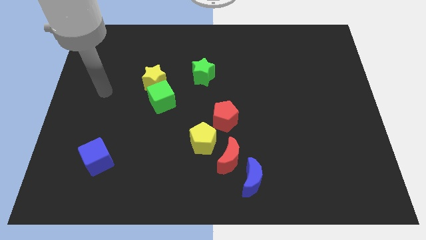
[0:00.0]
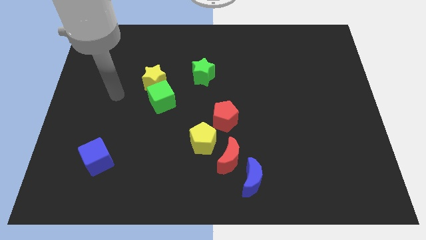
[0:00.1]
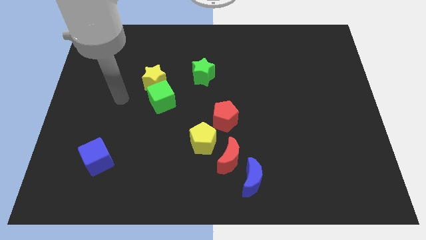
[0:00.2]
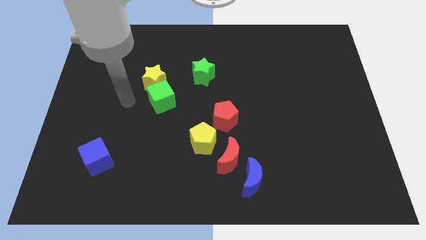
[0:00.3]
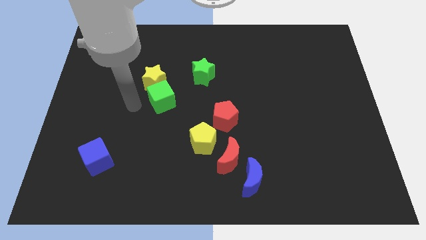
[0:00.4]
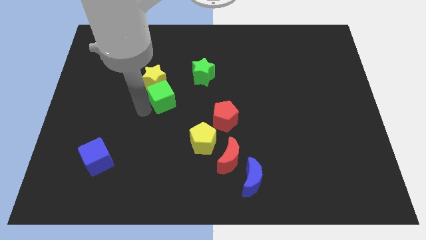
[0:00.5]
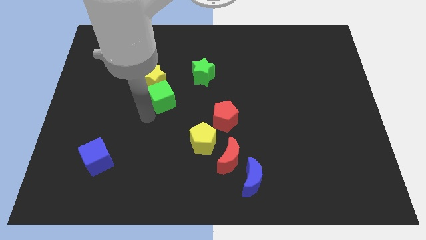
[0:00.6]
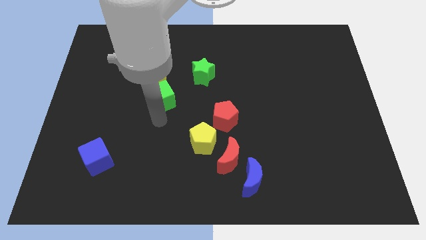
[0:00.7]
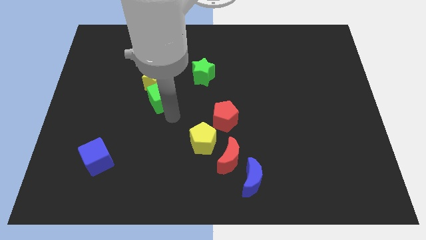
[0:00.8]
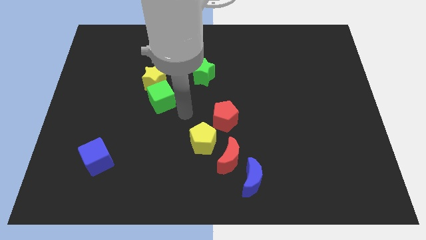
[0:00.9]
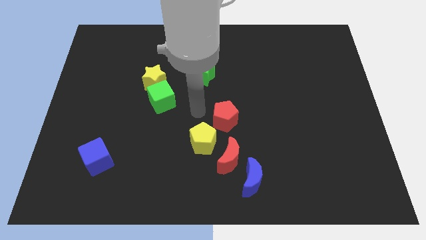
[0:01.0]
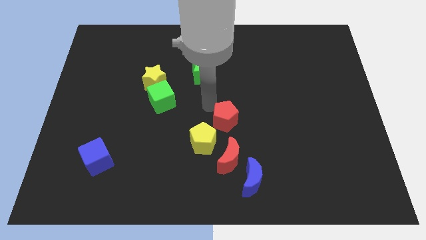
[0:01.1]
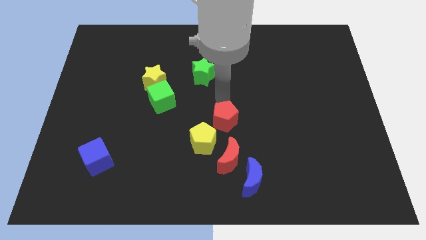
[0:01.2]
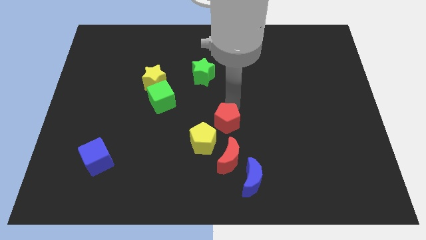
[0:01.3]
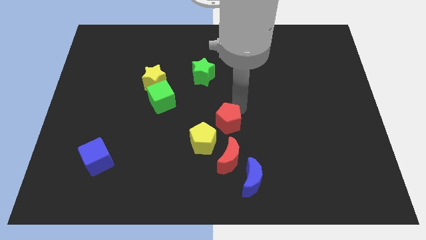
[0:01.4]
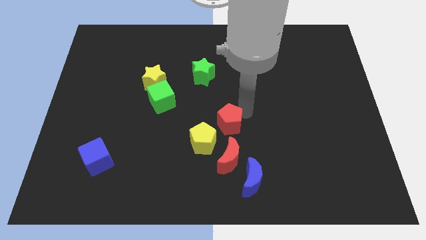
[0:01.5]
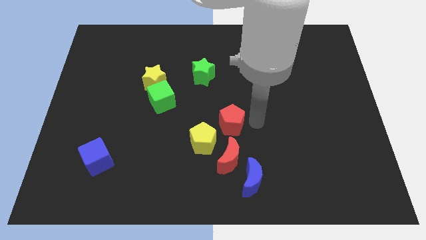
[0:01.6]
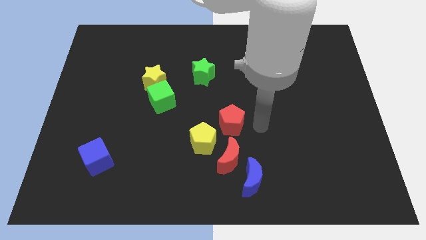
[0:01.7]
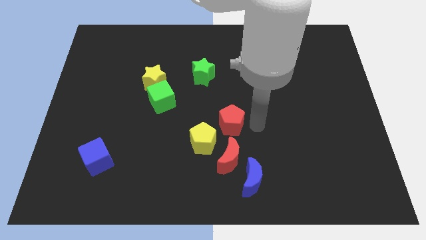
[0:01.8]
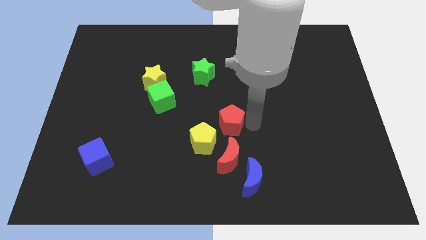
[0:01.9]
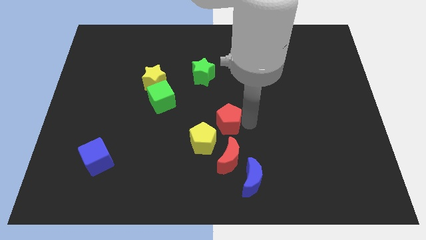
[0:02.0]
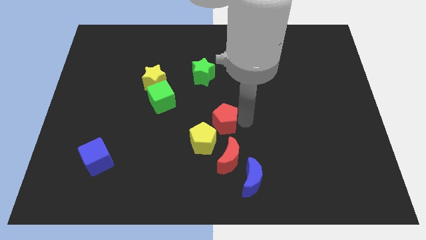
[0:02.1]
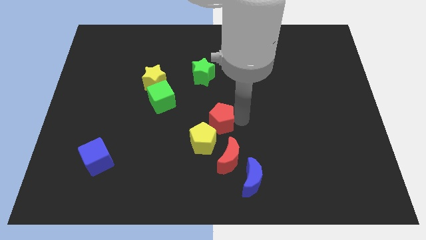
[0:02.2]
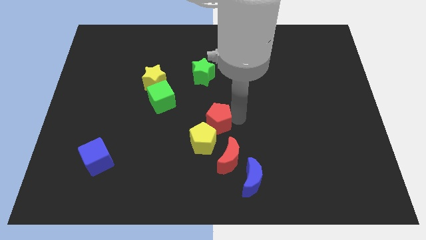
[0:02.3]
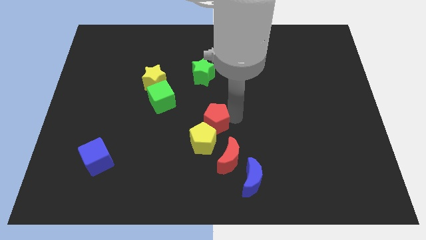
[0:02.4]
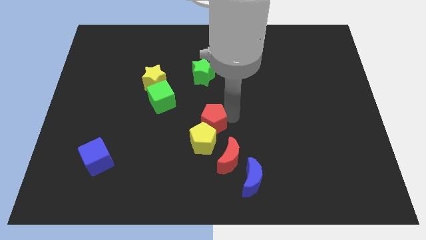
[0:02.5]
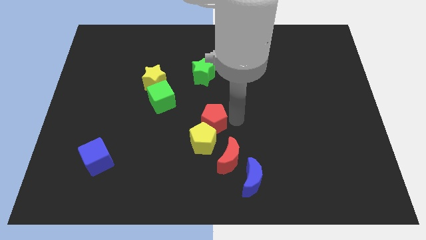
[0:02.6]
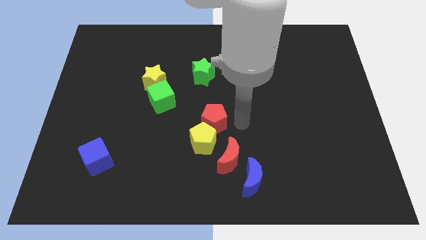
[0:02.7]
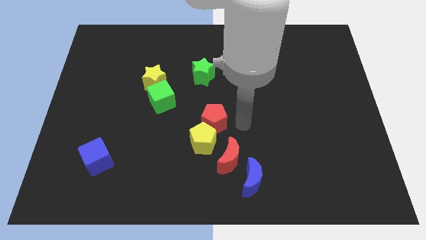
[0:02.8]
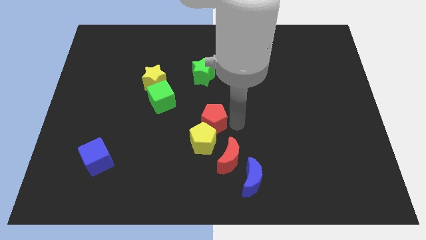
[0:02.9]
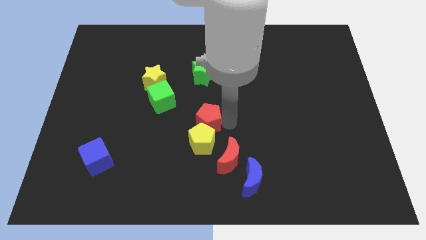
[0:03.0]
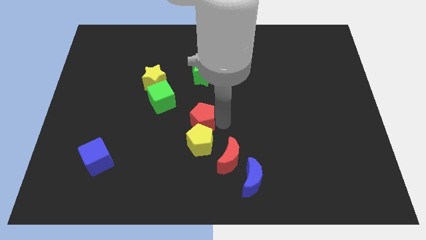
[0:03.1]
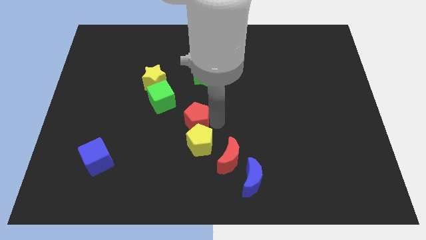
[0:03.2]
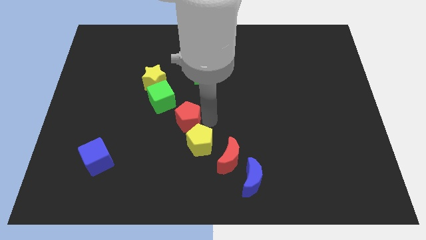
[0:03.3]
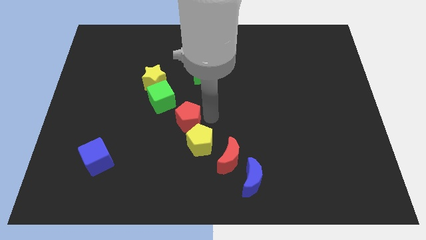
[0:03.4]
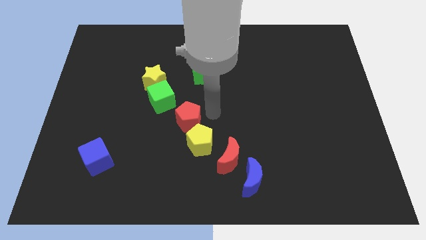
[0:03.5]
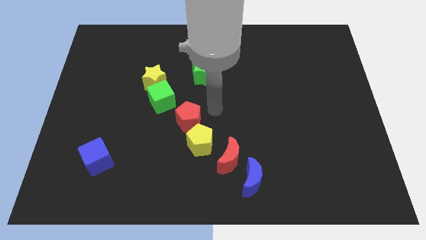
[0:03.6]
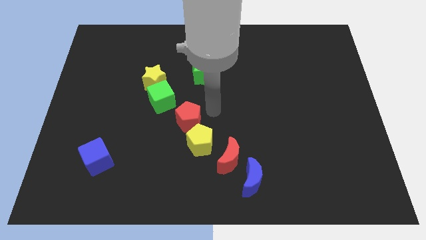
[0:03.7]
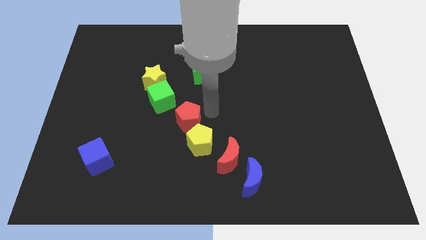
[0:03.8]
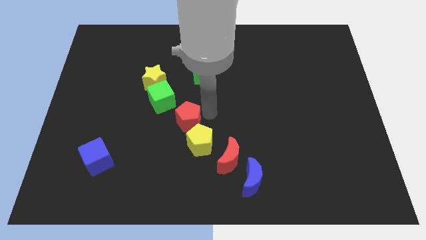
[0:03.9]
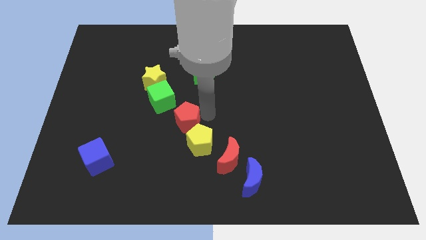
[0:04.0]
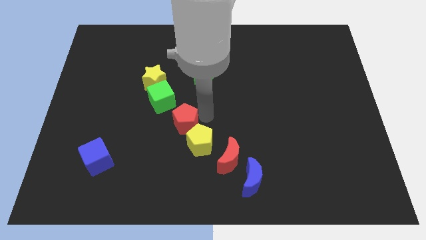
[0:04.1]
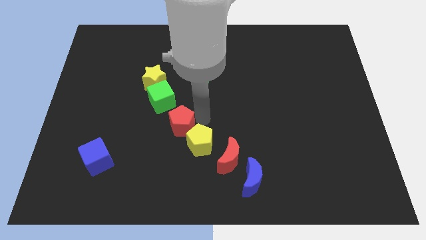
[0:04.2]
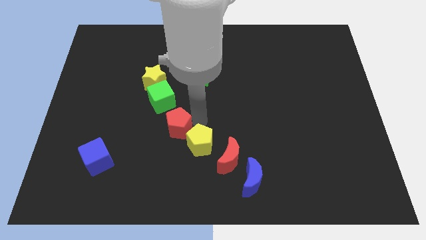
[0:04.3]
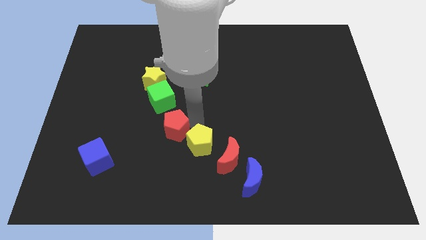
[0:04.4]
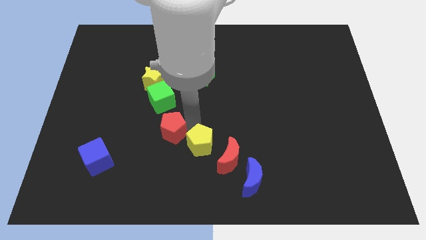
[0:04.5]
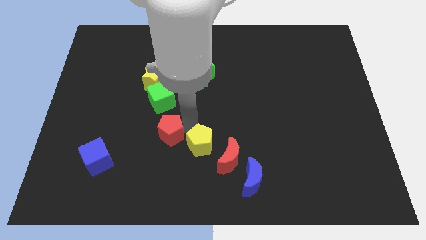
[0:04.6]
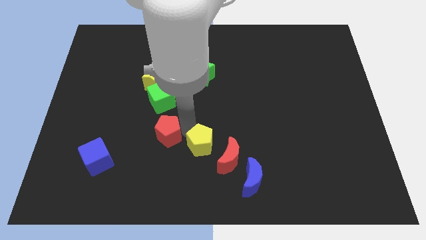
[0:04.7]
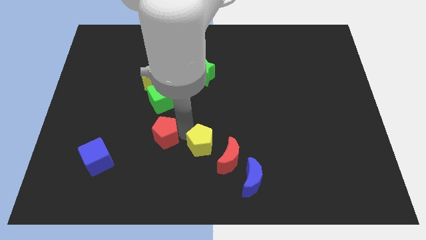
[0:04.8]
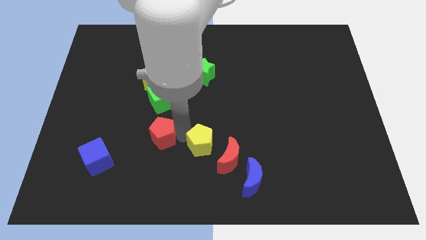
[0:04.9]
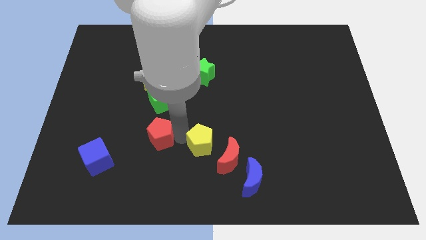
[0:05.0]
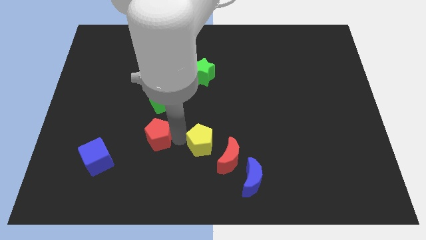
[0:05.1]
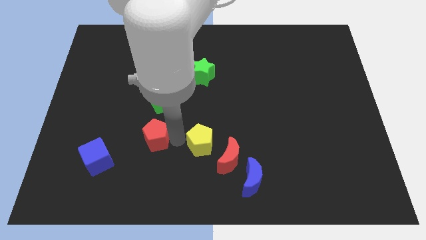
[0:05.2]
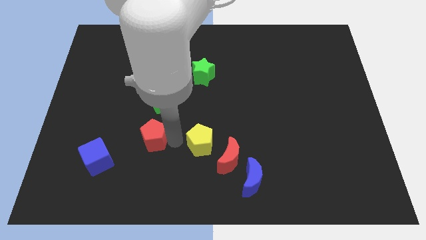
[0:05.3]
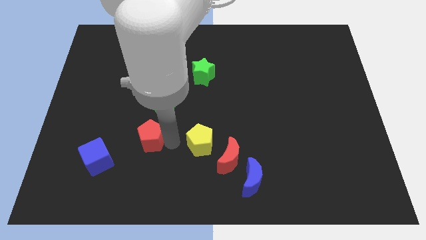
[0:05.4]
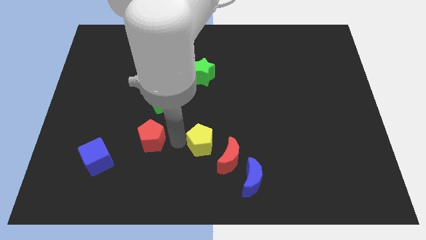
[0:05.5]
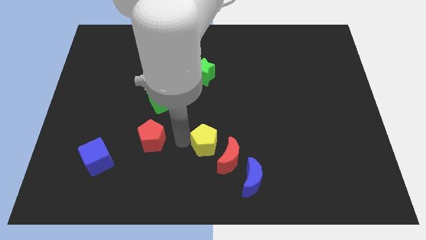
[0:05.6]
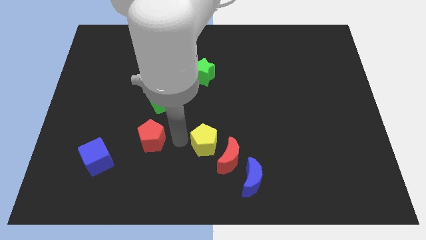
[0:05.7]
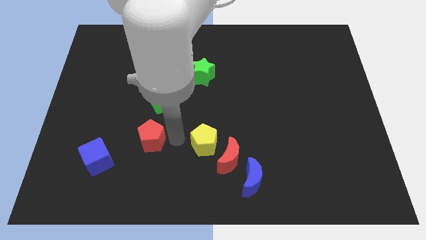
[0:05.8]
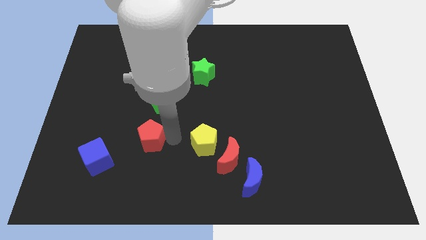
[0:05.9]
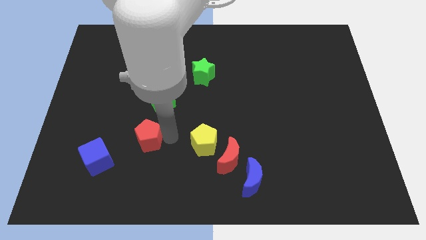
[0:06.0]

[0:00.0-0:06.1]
slide the red pentagon to the top right side of the blue cube

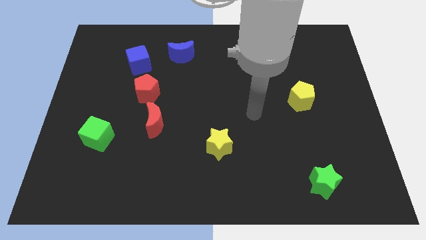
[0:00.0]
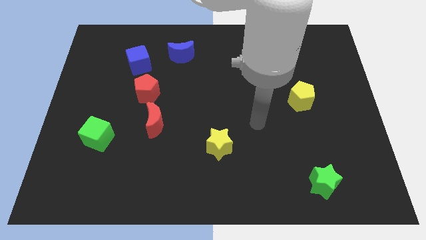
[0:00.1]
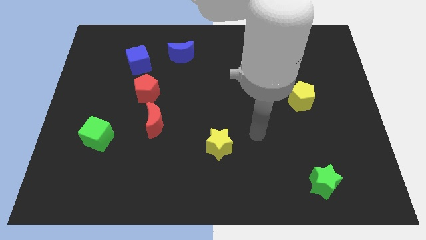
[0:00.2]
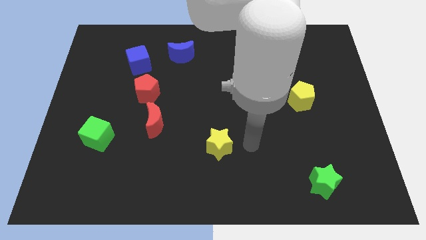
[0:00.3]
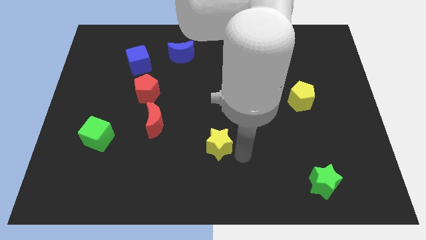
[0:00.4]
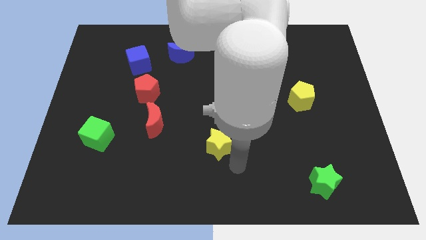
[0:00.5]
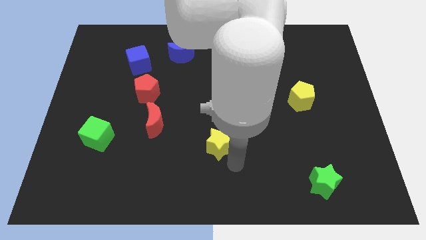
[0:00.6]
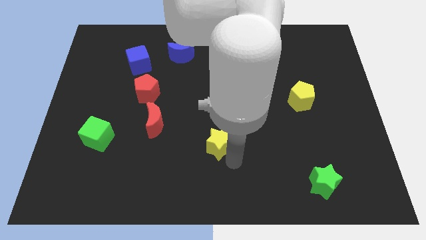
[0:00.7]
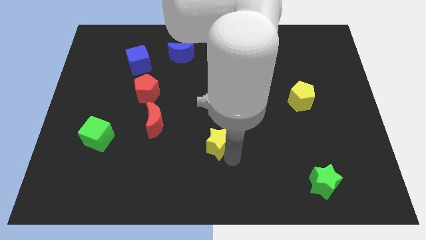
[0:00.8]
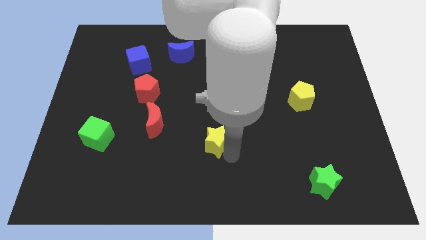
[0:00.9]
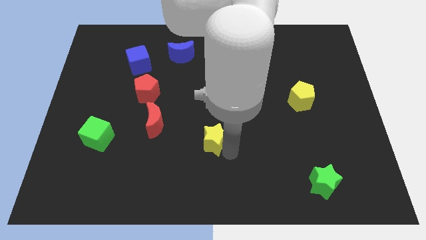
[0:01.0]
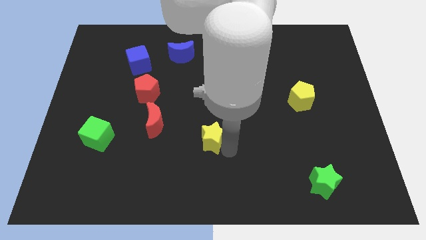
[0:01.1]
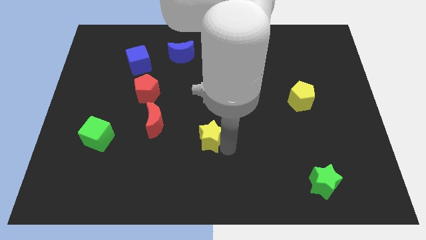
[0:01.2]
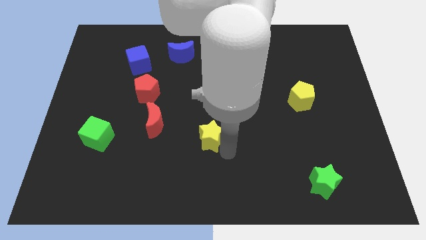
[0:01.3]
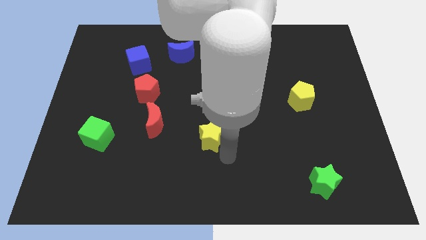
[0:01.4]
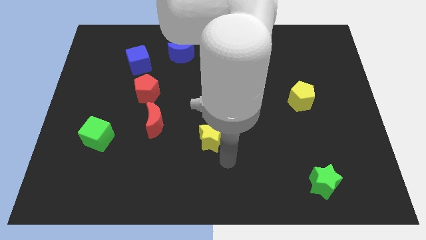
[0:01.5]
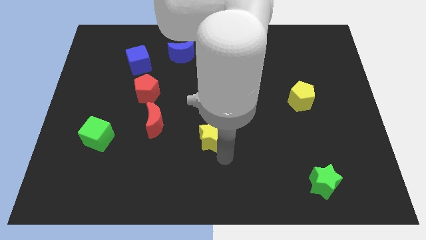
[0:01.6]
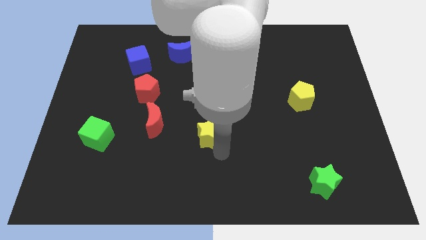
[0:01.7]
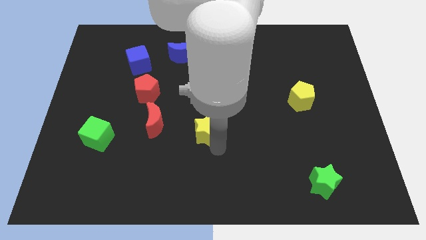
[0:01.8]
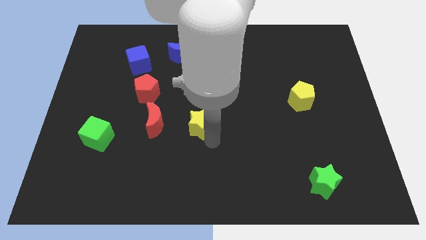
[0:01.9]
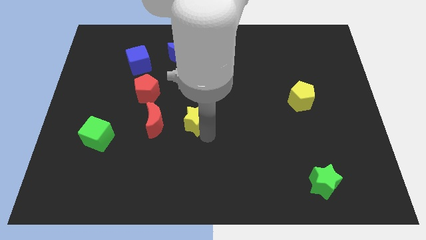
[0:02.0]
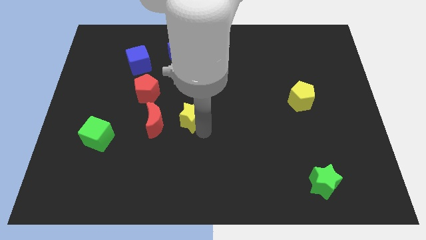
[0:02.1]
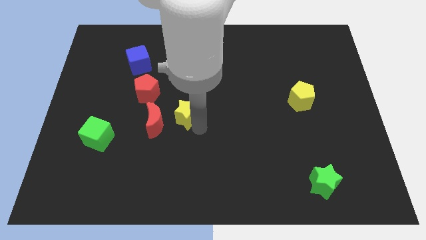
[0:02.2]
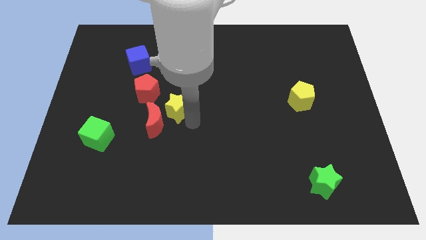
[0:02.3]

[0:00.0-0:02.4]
put the yellow star to the top of the red moon
